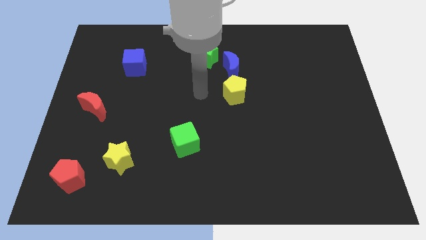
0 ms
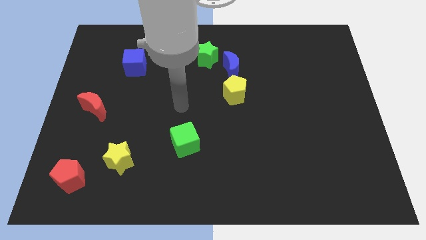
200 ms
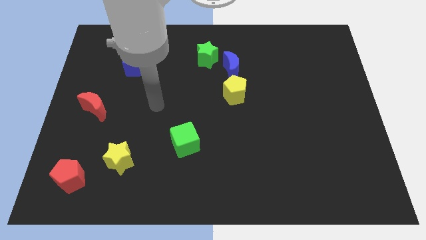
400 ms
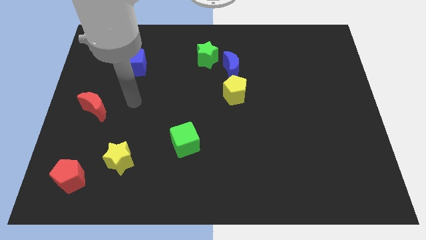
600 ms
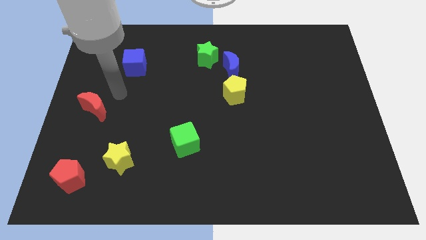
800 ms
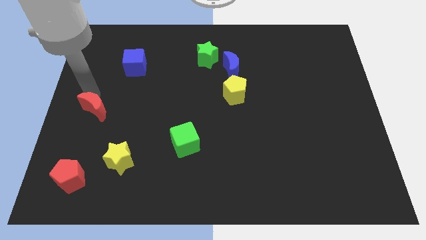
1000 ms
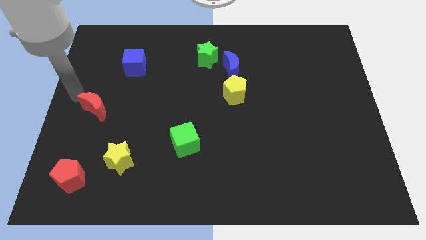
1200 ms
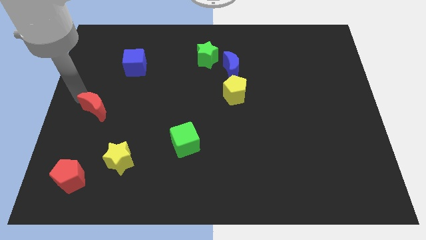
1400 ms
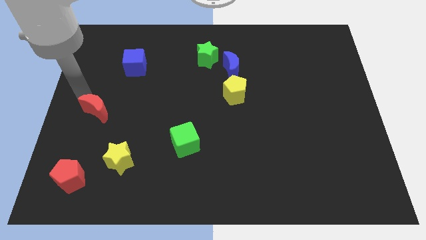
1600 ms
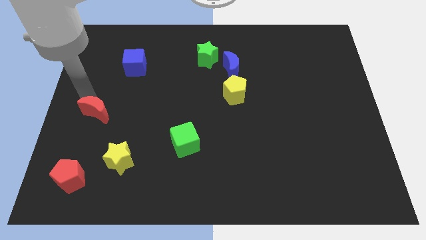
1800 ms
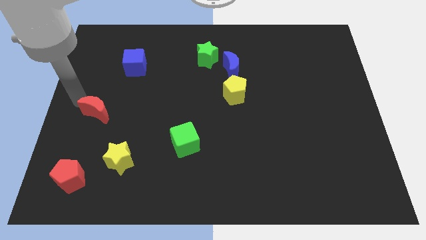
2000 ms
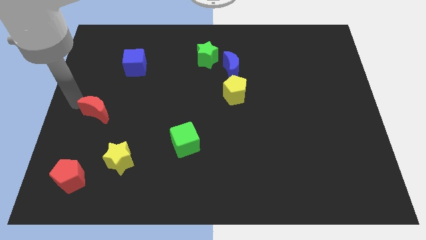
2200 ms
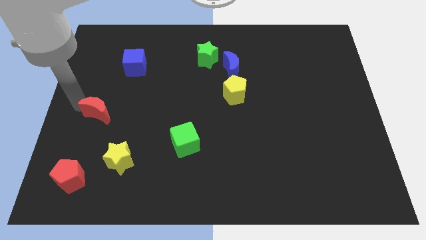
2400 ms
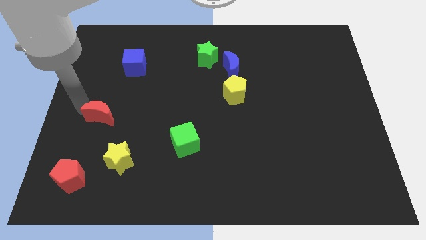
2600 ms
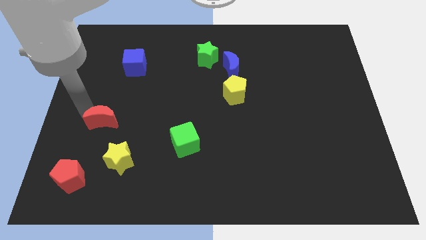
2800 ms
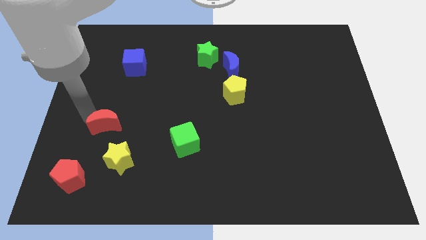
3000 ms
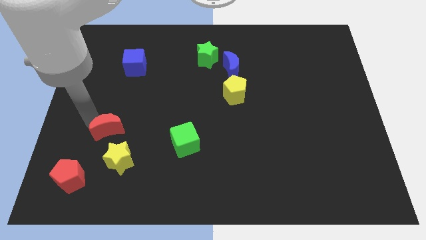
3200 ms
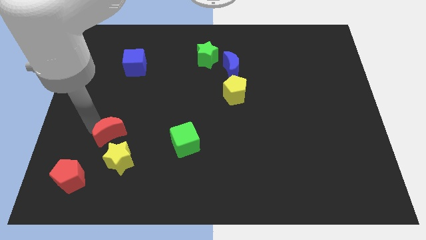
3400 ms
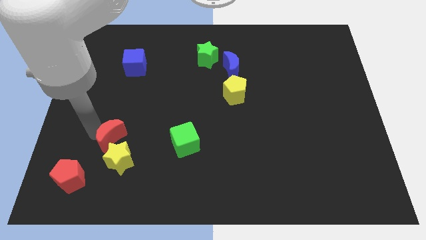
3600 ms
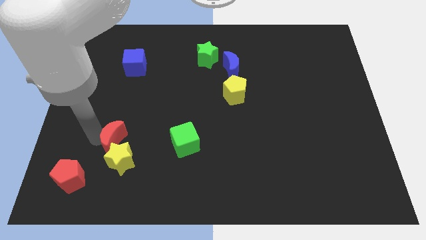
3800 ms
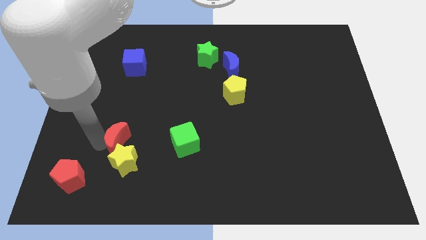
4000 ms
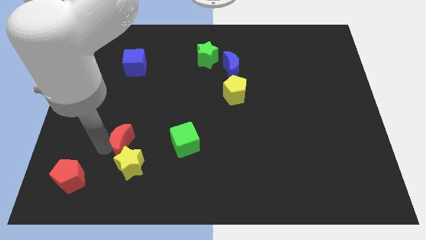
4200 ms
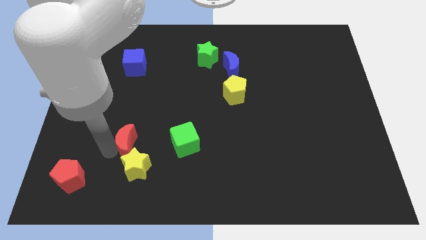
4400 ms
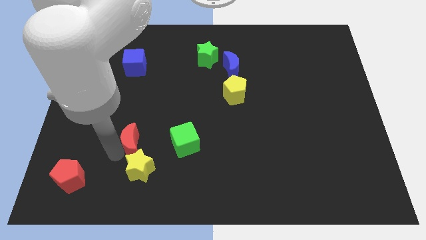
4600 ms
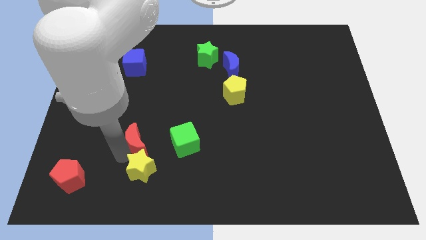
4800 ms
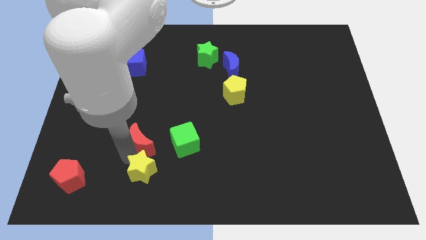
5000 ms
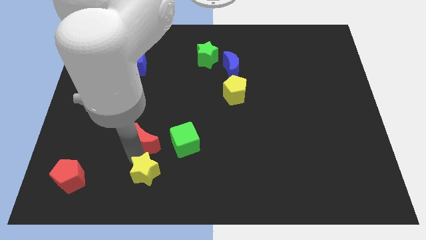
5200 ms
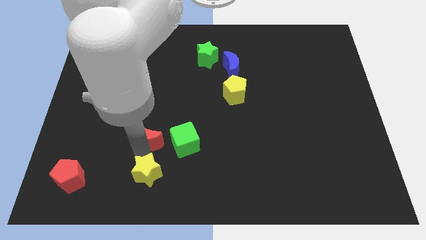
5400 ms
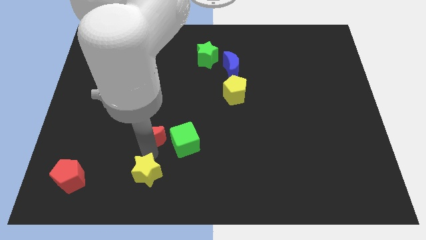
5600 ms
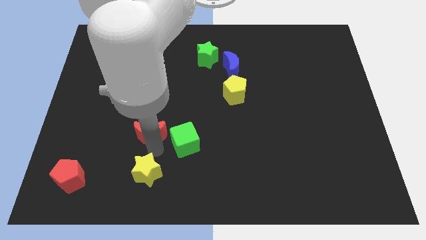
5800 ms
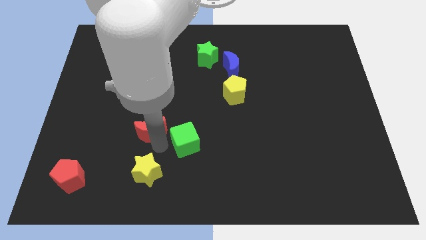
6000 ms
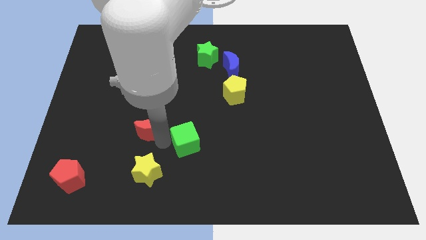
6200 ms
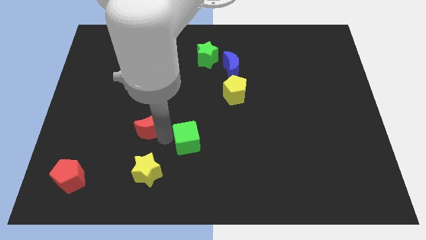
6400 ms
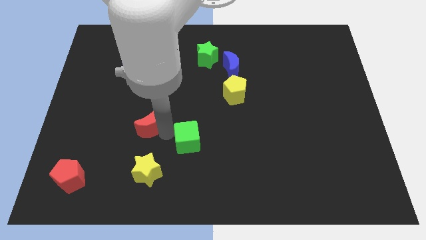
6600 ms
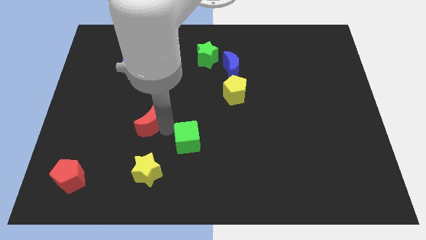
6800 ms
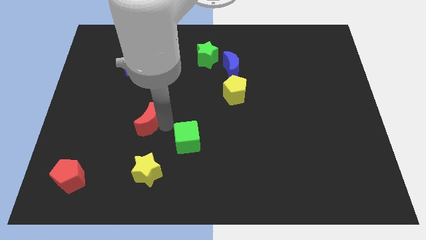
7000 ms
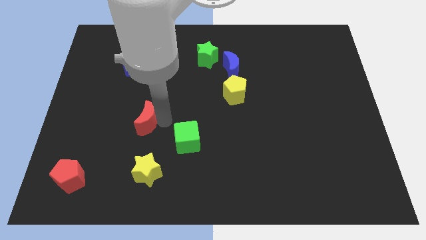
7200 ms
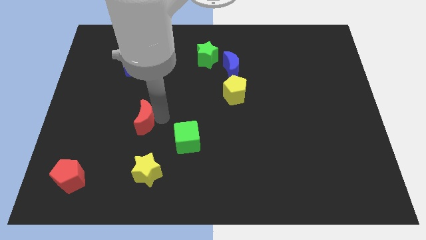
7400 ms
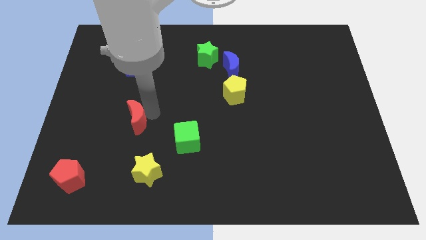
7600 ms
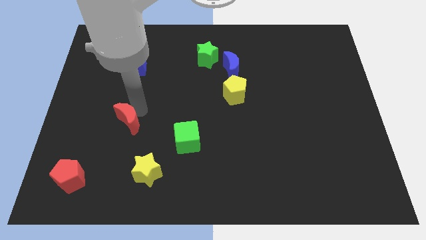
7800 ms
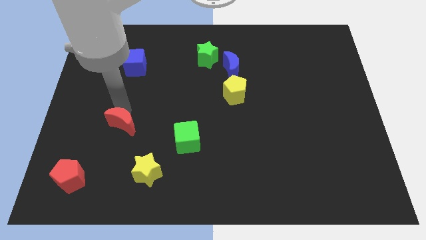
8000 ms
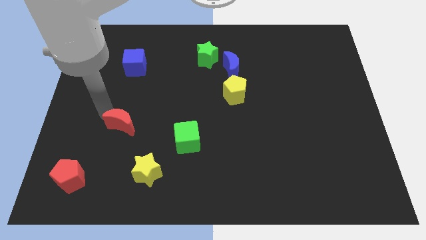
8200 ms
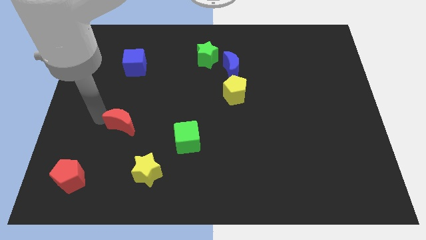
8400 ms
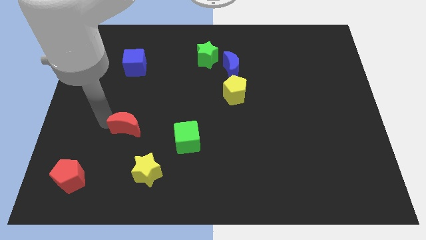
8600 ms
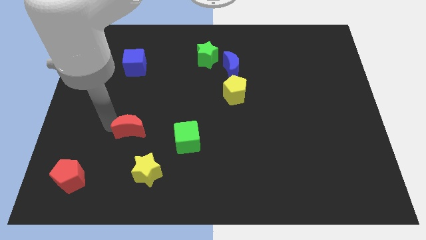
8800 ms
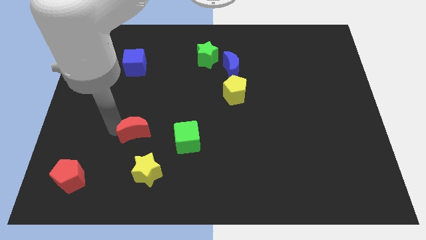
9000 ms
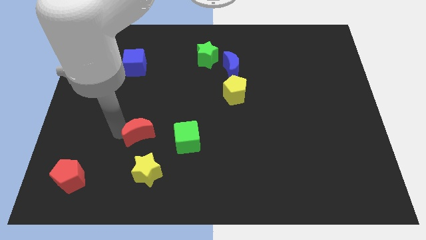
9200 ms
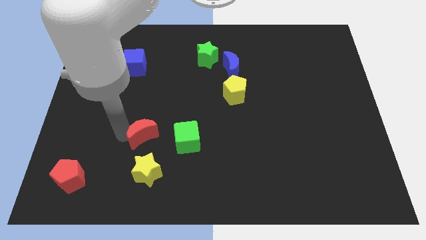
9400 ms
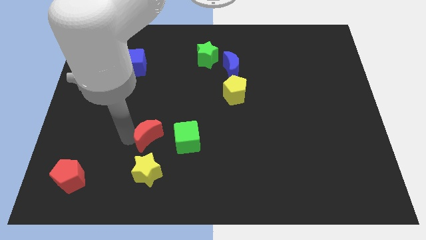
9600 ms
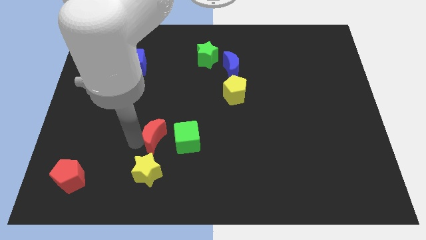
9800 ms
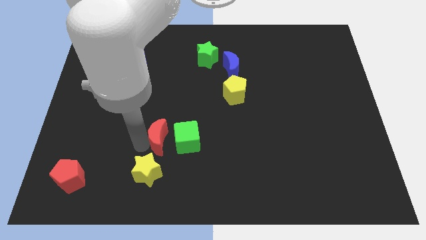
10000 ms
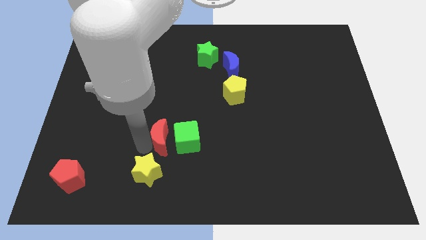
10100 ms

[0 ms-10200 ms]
push the red moon close to the green cube

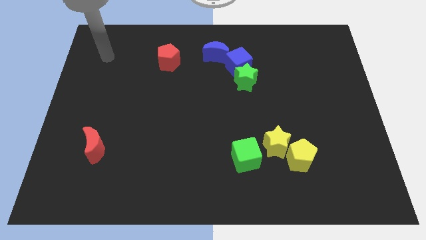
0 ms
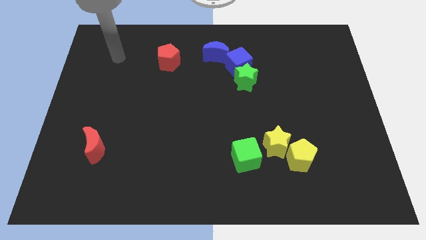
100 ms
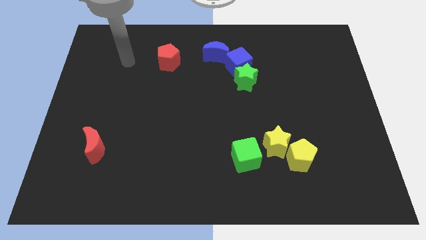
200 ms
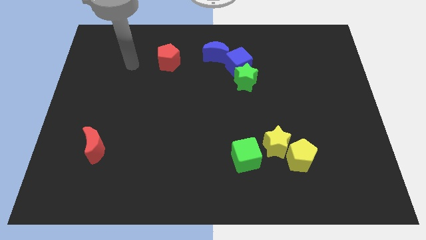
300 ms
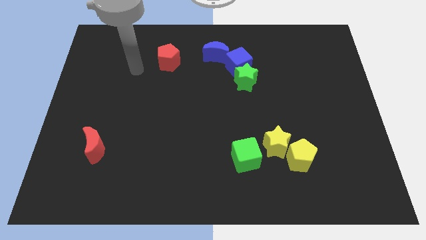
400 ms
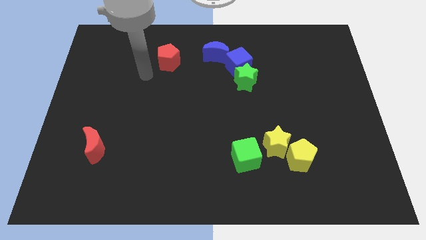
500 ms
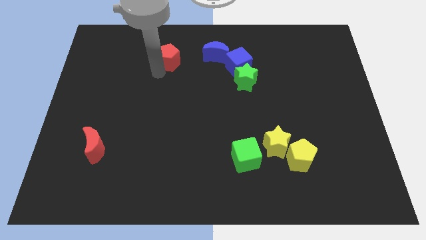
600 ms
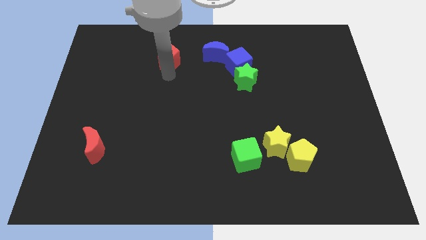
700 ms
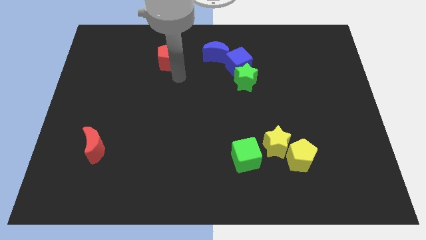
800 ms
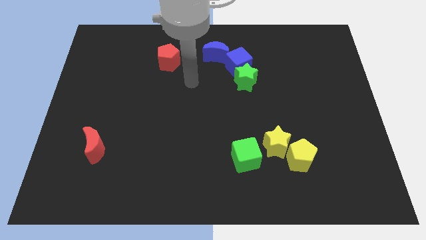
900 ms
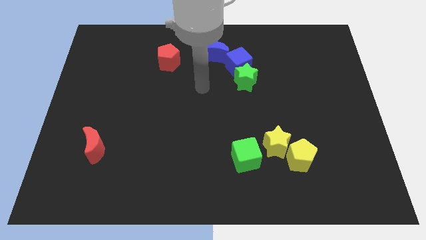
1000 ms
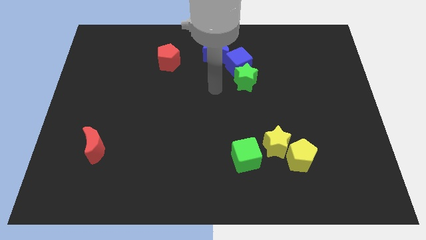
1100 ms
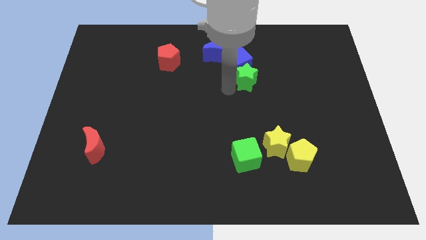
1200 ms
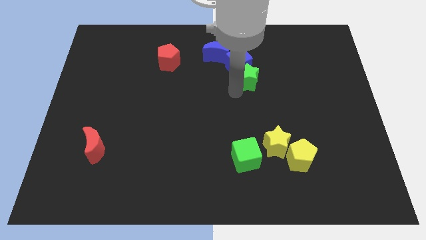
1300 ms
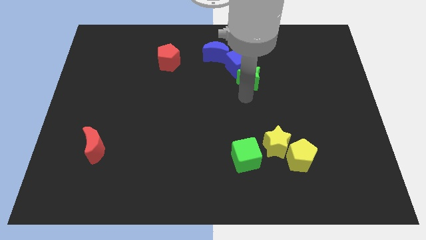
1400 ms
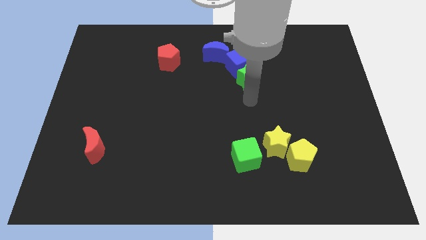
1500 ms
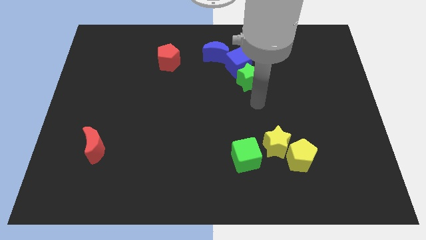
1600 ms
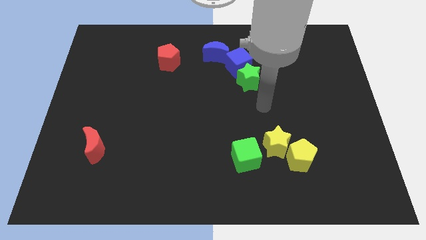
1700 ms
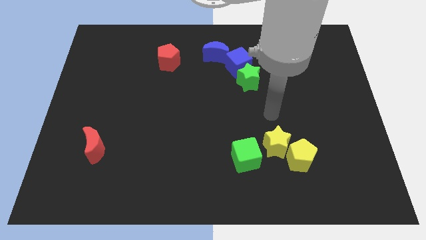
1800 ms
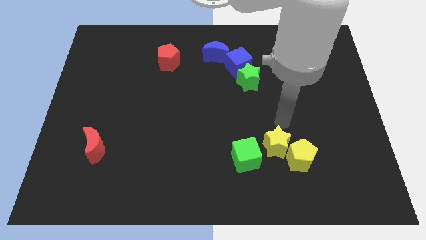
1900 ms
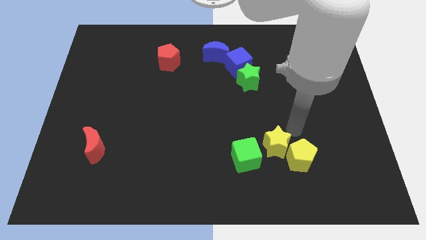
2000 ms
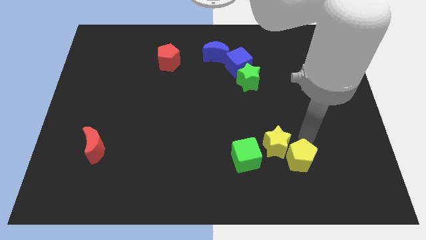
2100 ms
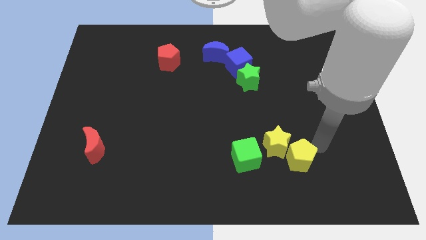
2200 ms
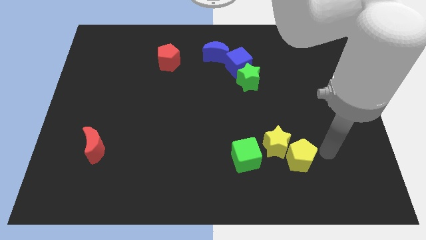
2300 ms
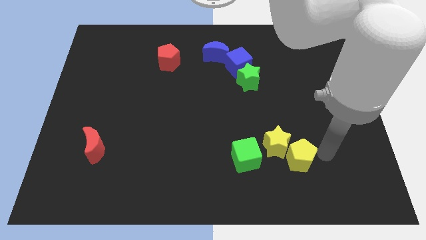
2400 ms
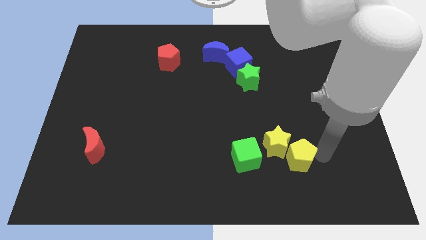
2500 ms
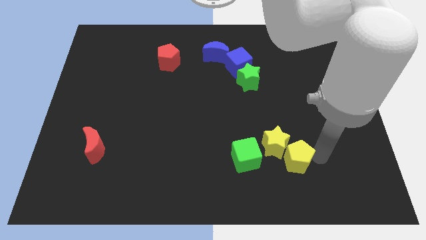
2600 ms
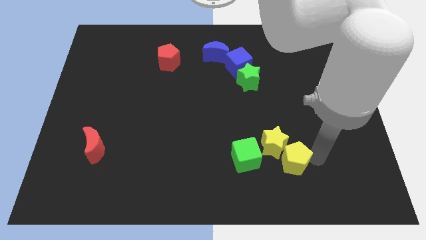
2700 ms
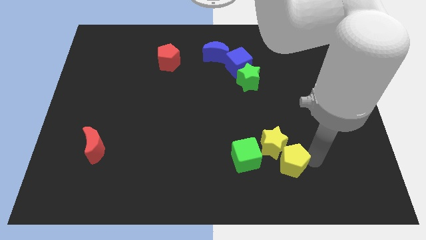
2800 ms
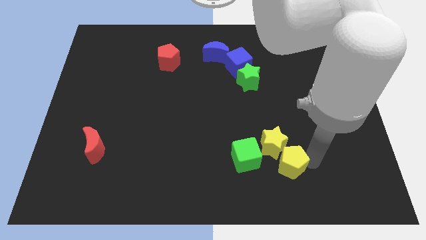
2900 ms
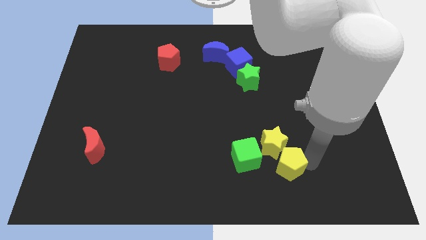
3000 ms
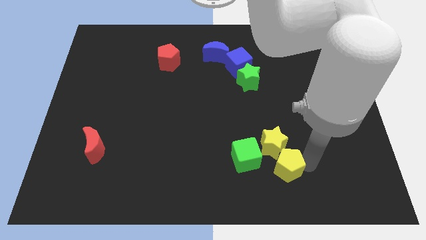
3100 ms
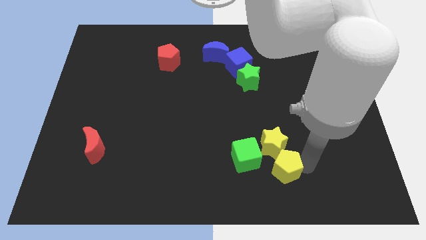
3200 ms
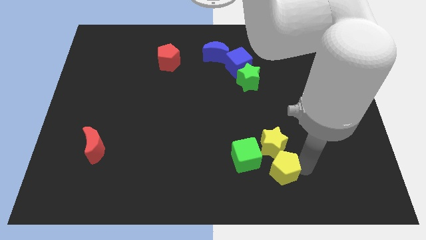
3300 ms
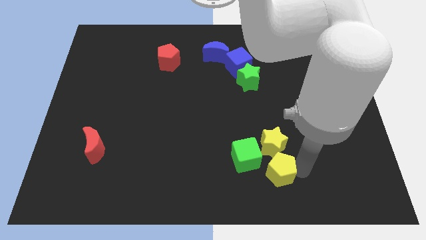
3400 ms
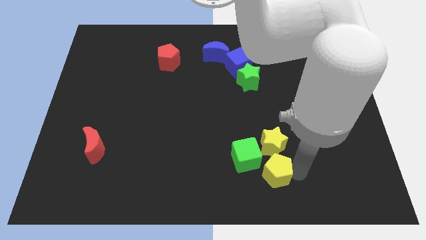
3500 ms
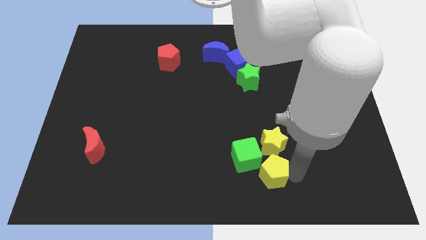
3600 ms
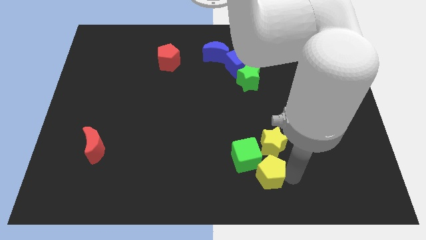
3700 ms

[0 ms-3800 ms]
push the yellow pentagon next to the green cube
